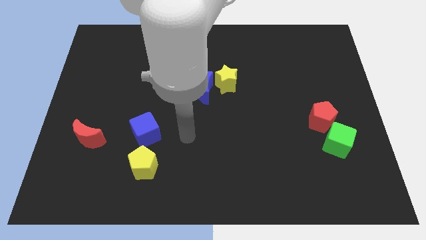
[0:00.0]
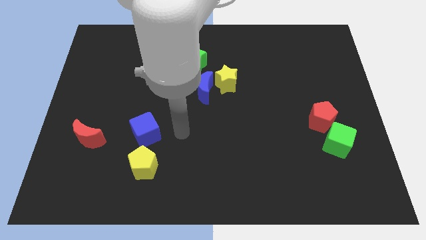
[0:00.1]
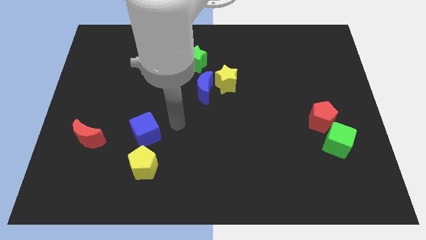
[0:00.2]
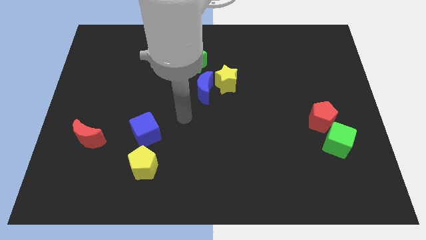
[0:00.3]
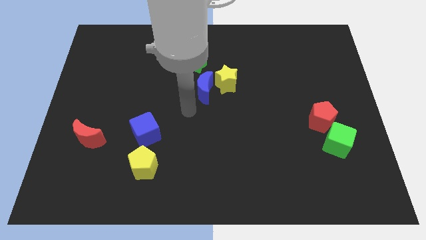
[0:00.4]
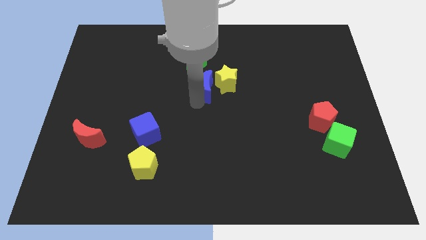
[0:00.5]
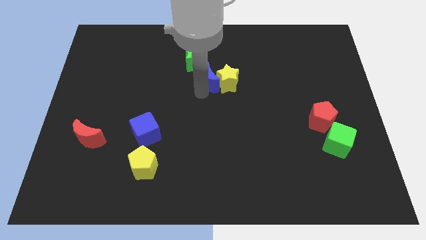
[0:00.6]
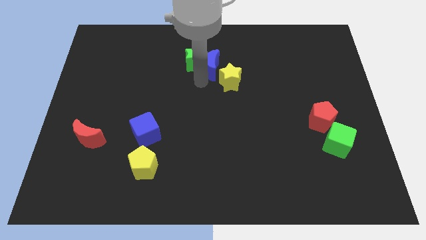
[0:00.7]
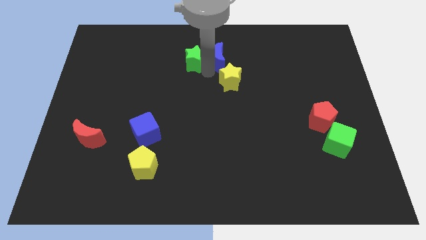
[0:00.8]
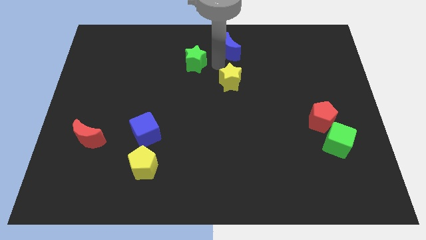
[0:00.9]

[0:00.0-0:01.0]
move the yellow star away from the blue moon

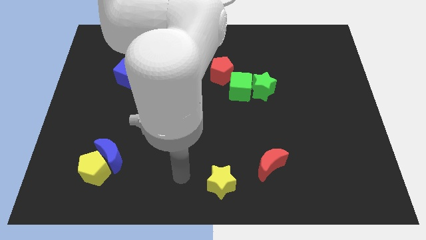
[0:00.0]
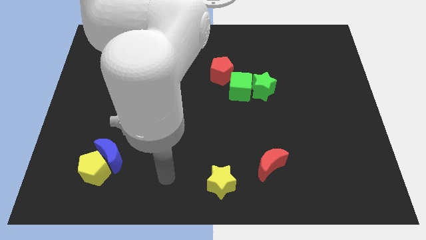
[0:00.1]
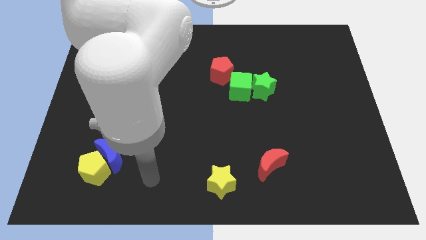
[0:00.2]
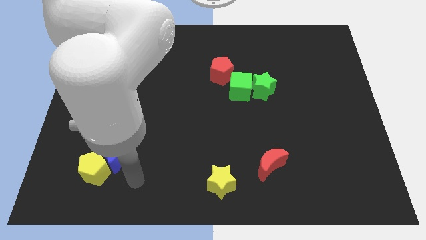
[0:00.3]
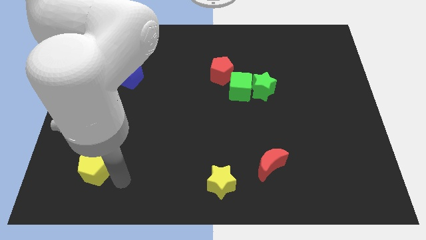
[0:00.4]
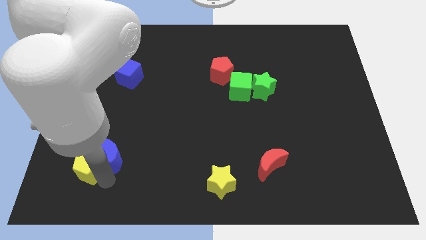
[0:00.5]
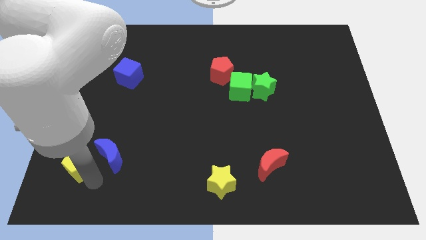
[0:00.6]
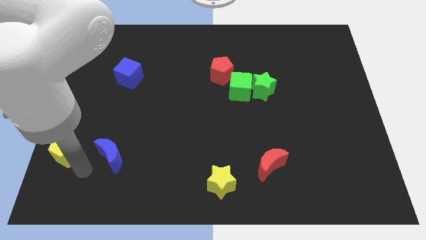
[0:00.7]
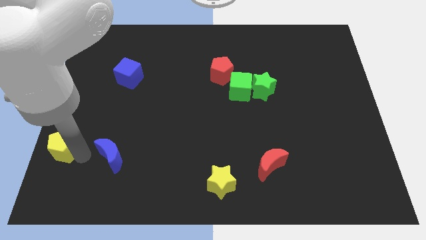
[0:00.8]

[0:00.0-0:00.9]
separate the blue moon from the yellow pentagon

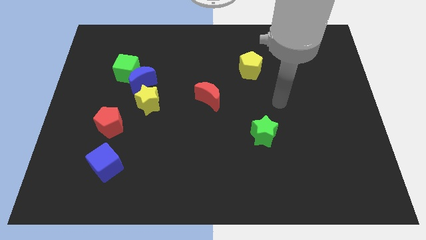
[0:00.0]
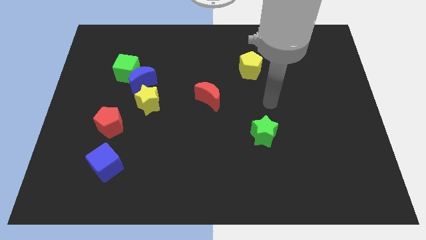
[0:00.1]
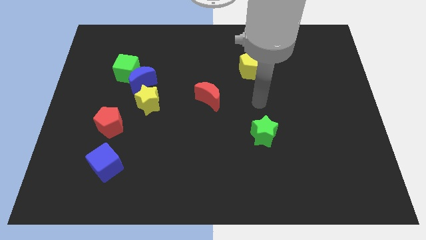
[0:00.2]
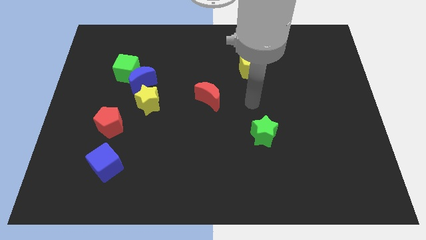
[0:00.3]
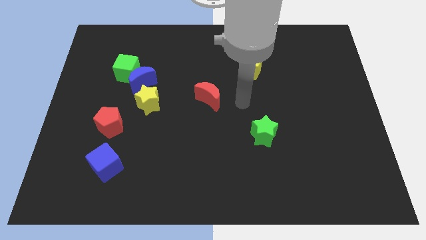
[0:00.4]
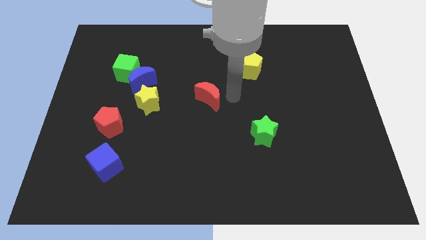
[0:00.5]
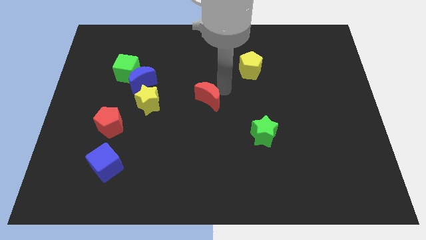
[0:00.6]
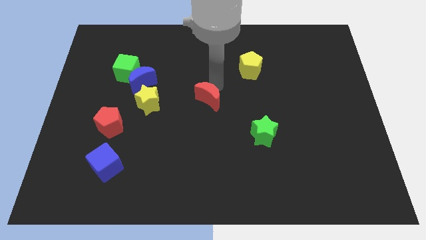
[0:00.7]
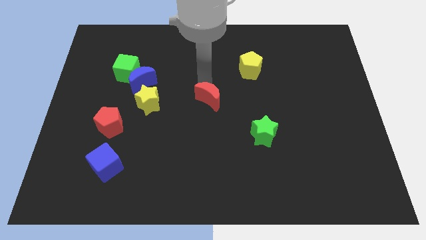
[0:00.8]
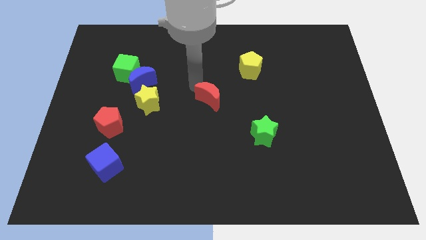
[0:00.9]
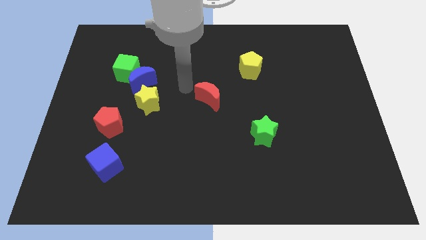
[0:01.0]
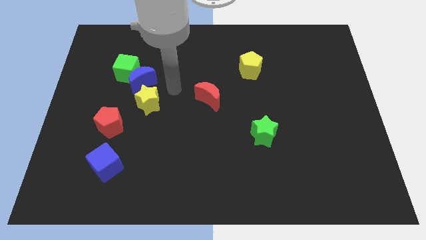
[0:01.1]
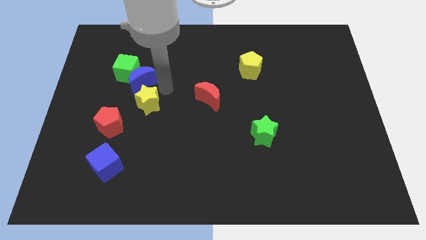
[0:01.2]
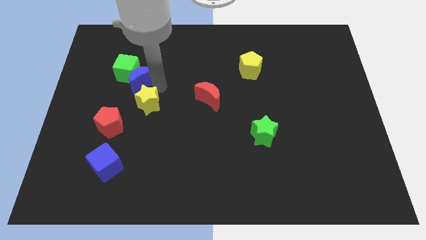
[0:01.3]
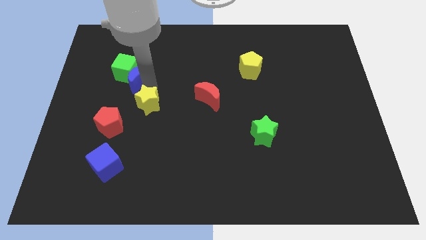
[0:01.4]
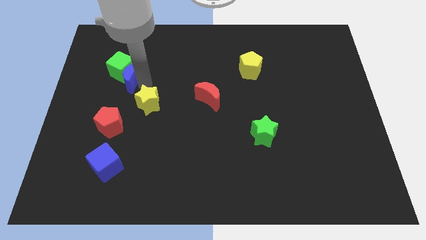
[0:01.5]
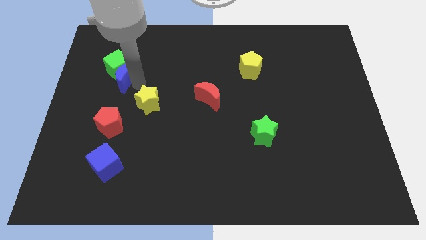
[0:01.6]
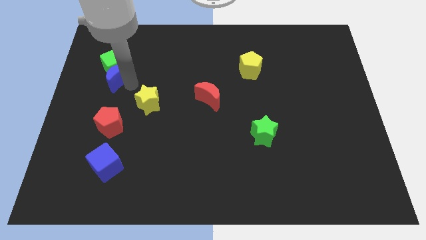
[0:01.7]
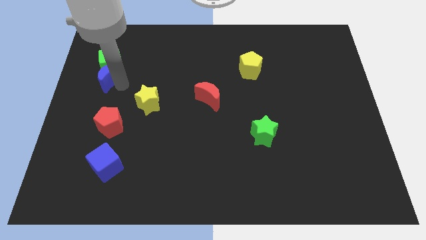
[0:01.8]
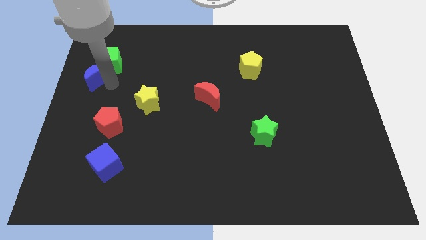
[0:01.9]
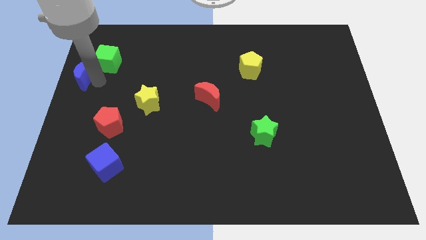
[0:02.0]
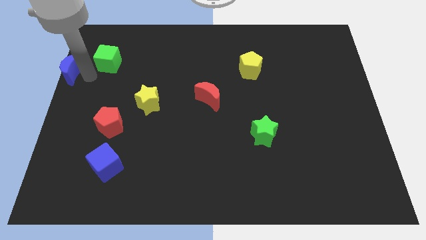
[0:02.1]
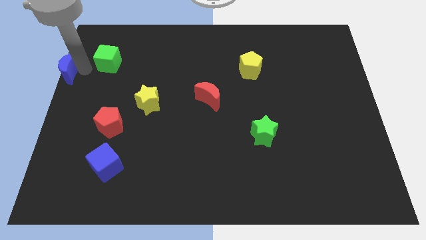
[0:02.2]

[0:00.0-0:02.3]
pull the green cube apart from the blue moon

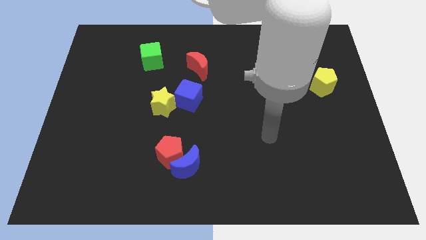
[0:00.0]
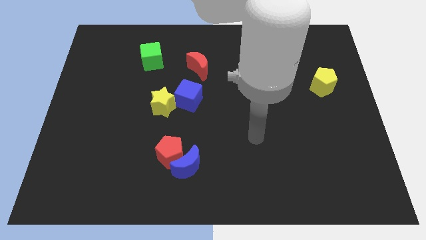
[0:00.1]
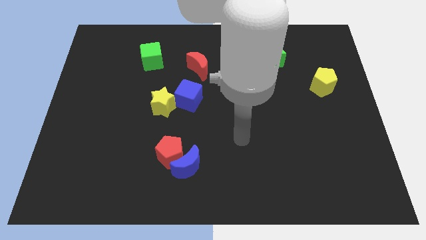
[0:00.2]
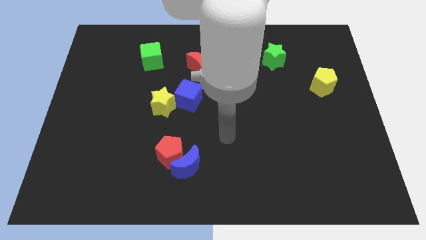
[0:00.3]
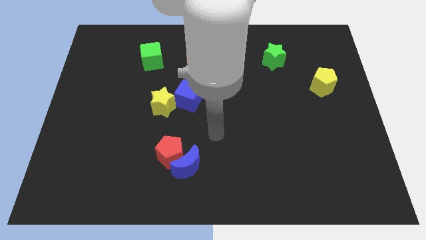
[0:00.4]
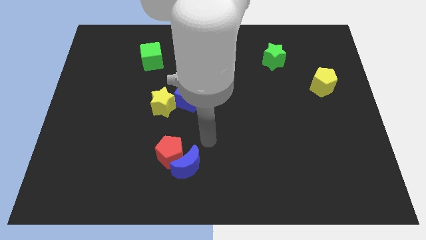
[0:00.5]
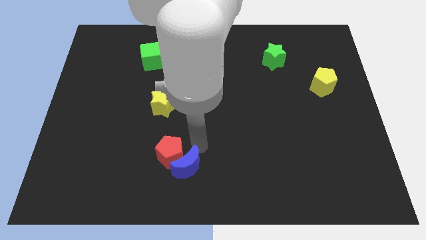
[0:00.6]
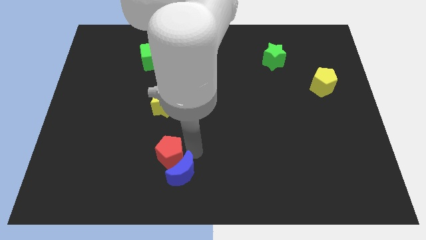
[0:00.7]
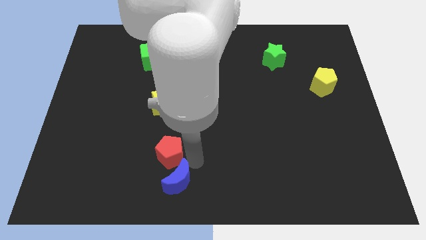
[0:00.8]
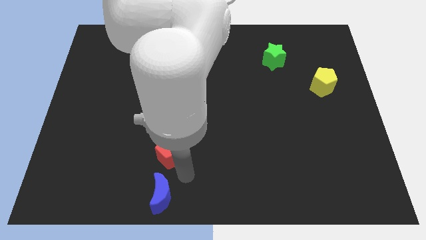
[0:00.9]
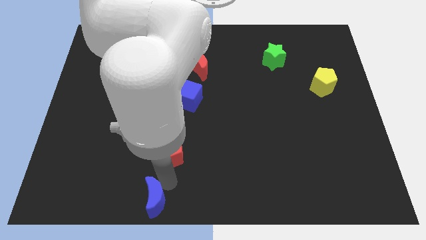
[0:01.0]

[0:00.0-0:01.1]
pull the red pentagon apart from the blue moon

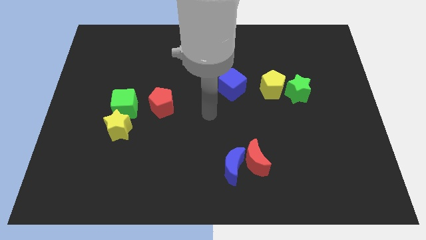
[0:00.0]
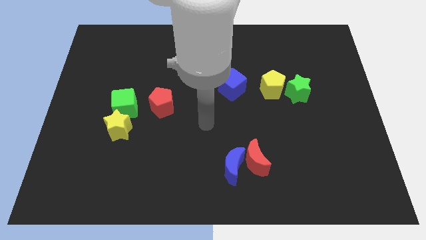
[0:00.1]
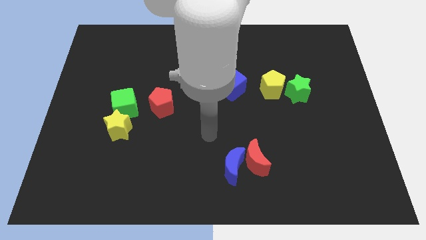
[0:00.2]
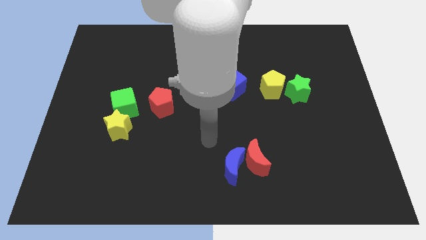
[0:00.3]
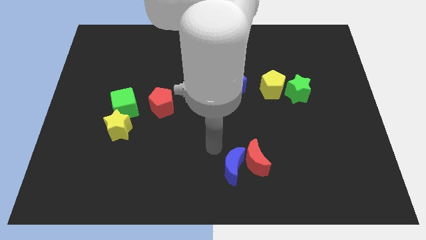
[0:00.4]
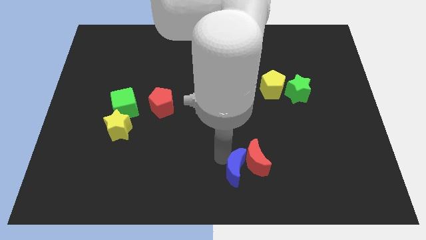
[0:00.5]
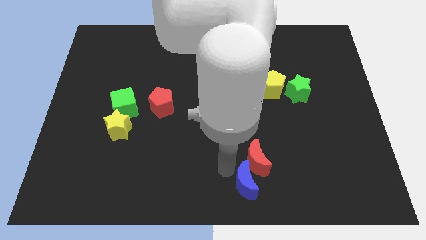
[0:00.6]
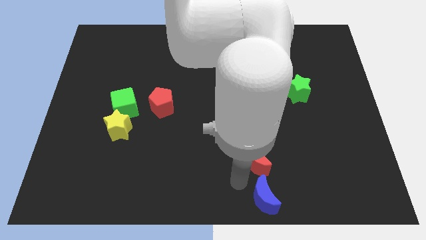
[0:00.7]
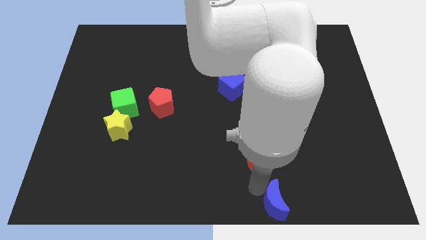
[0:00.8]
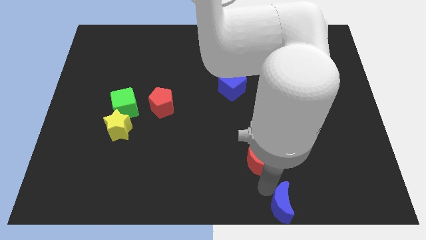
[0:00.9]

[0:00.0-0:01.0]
pull the red moon apart from the blue moon

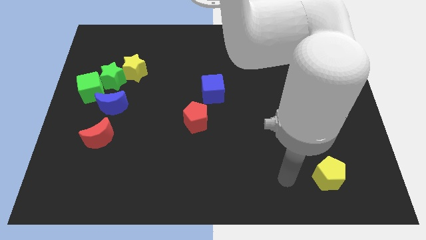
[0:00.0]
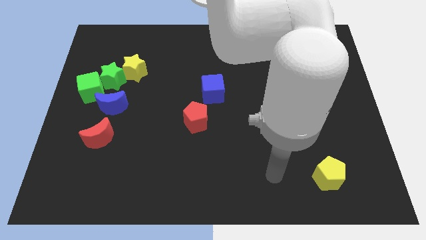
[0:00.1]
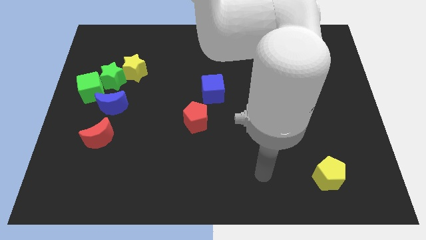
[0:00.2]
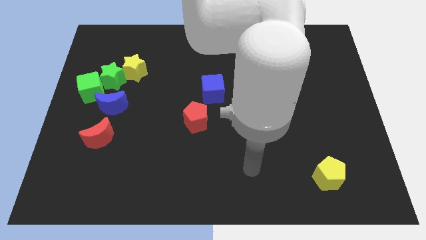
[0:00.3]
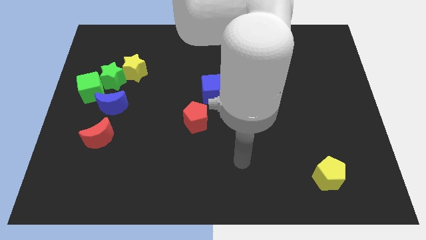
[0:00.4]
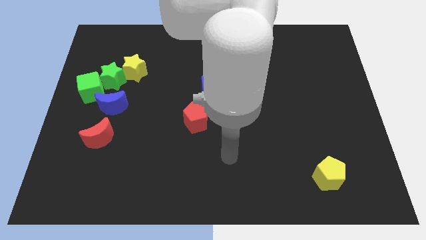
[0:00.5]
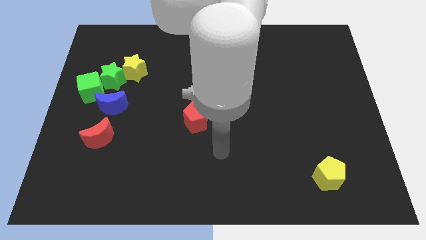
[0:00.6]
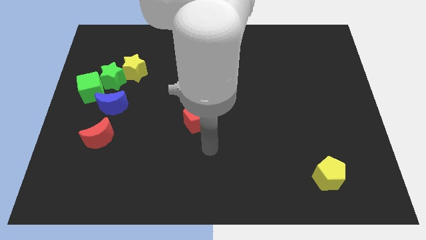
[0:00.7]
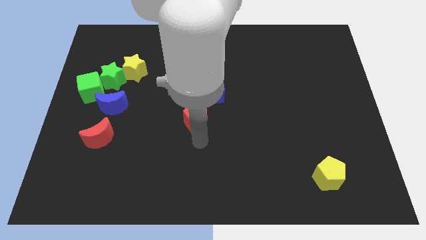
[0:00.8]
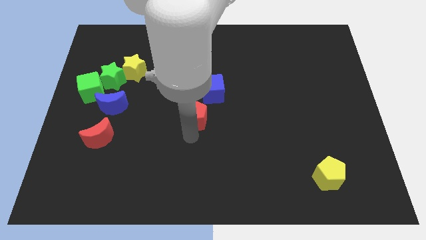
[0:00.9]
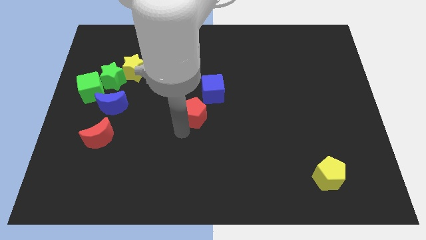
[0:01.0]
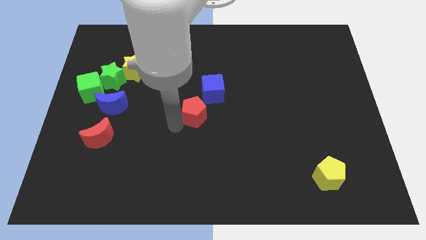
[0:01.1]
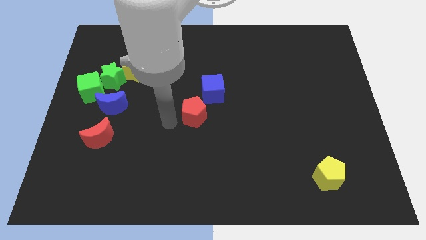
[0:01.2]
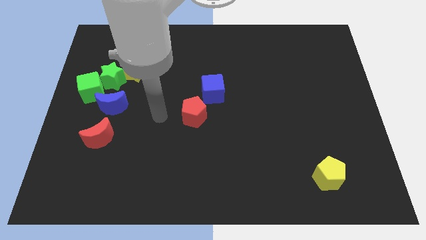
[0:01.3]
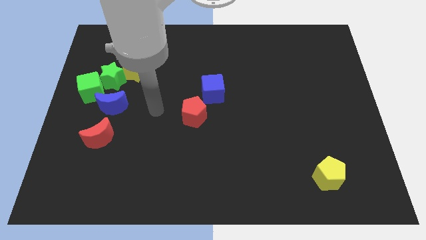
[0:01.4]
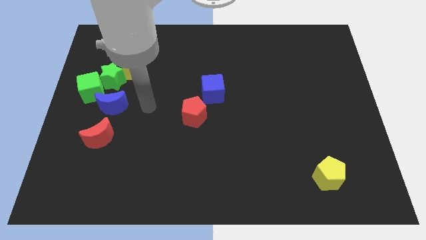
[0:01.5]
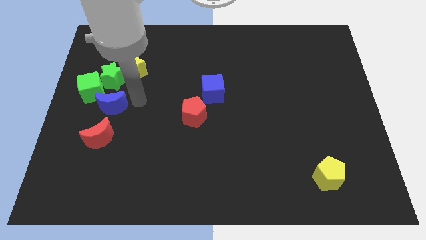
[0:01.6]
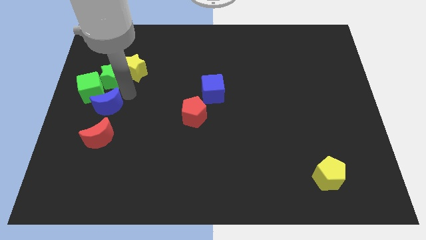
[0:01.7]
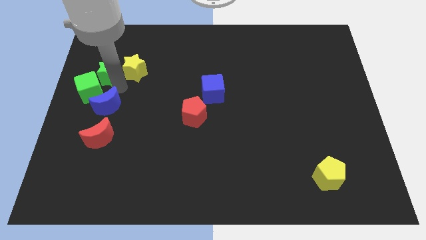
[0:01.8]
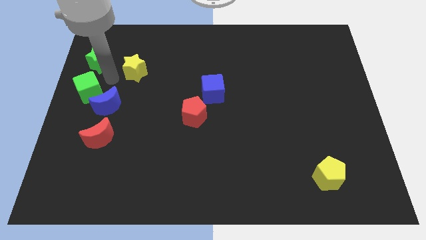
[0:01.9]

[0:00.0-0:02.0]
move the yellow star away from the green star

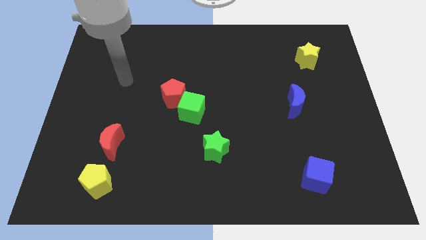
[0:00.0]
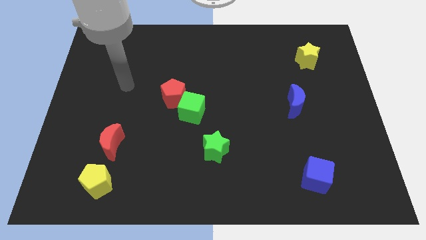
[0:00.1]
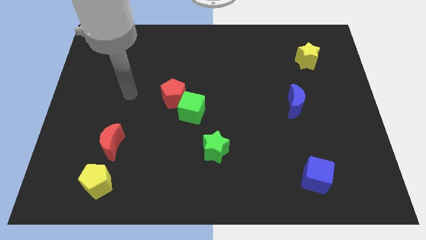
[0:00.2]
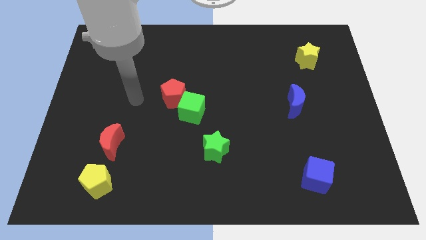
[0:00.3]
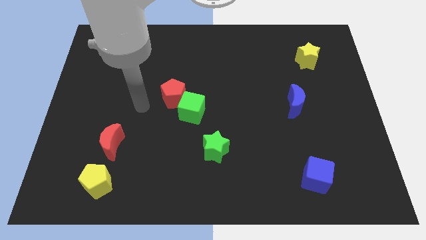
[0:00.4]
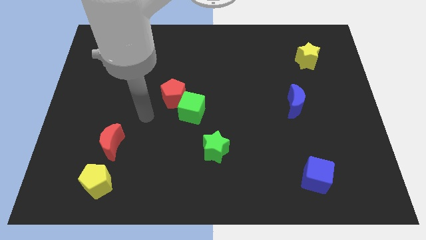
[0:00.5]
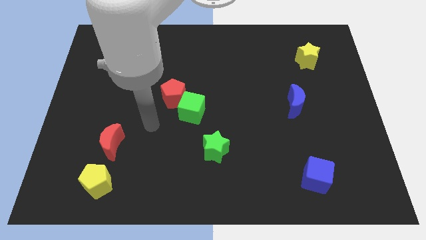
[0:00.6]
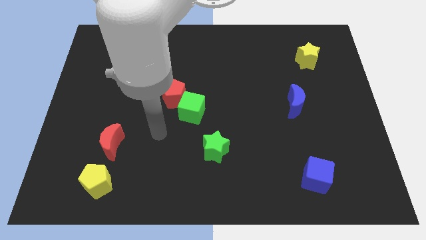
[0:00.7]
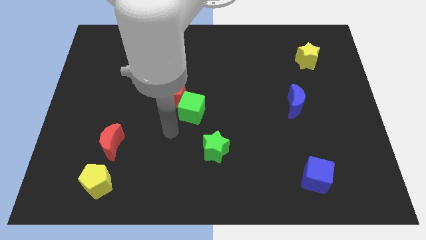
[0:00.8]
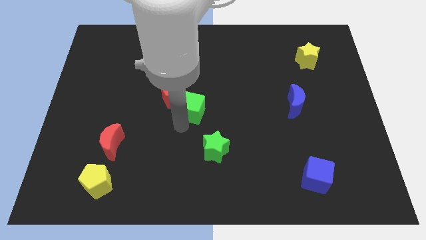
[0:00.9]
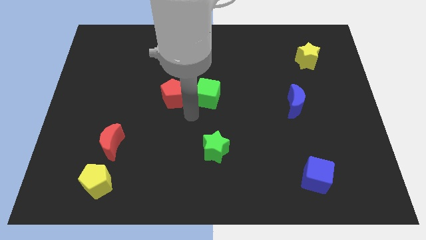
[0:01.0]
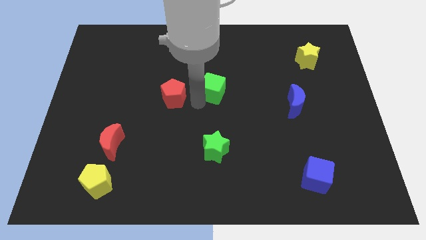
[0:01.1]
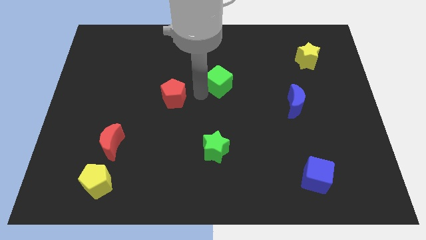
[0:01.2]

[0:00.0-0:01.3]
move the red pentagon away from the green cube
